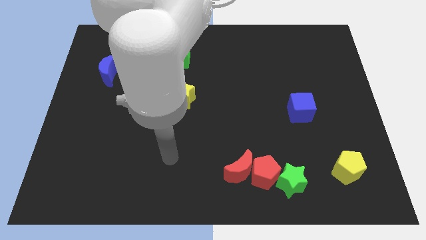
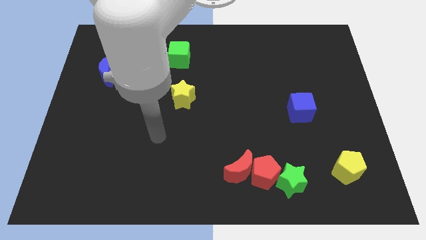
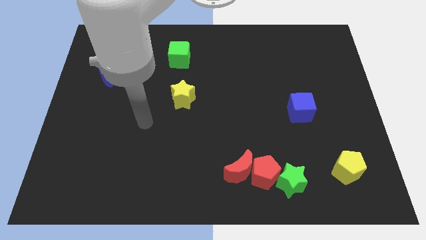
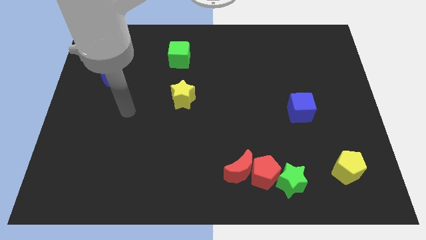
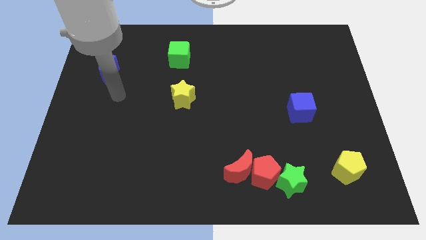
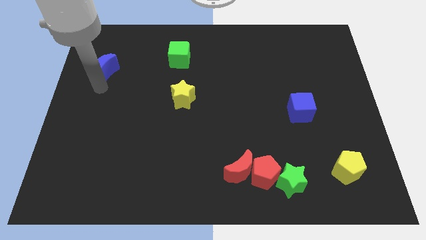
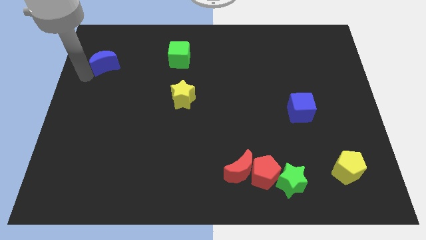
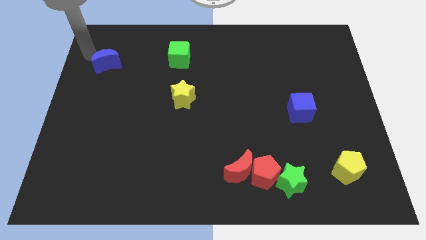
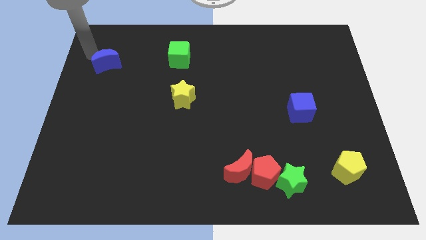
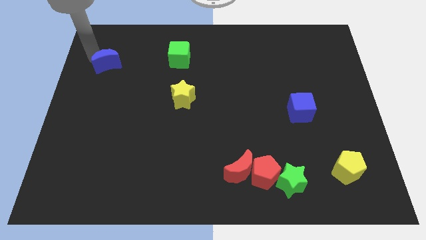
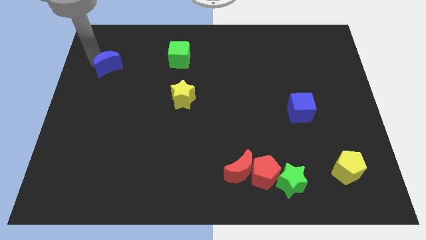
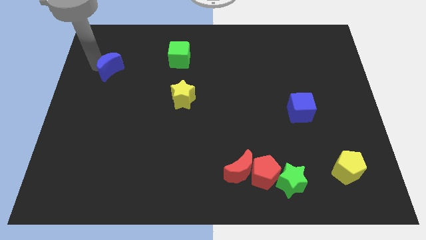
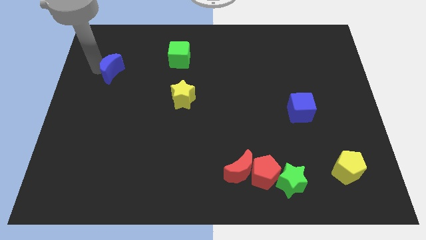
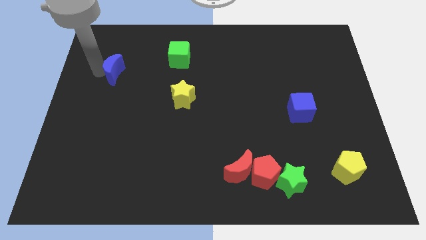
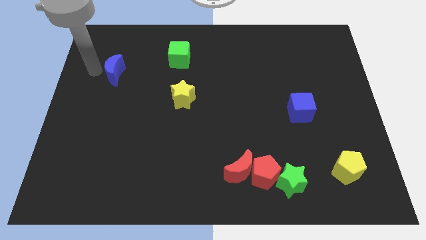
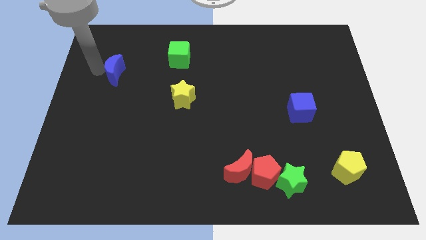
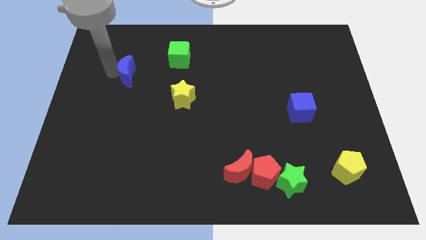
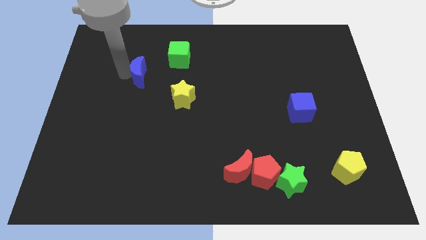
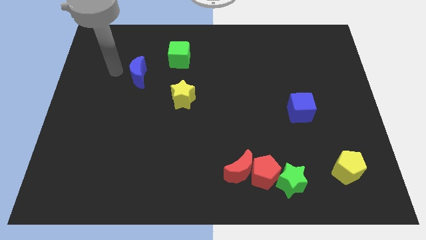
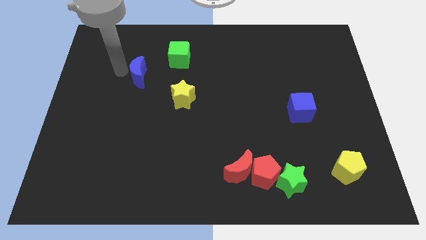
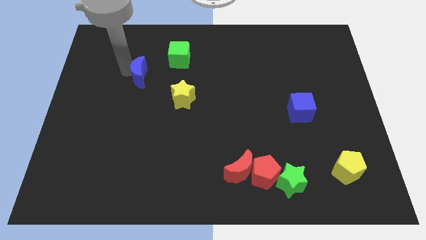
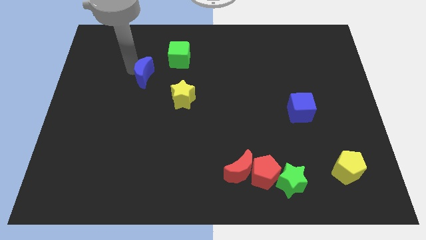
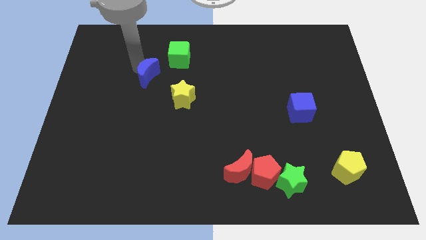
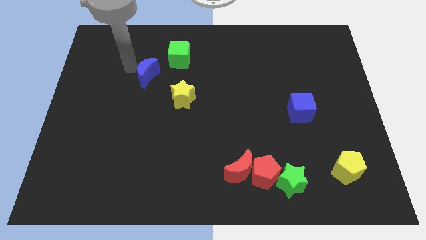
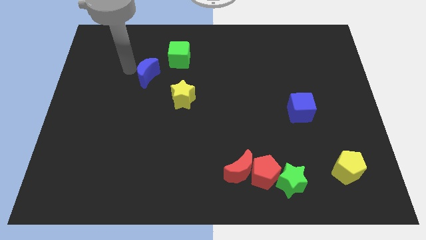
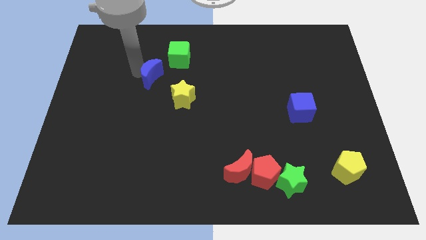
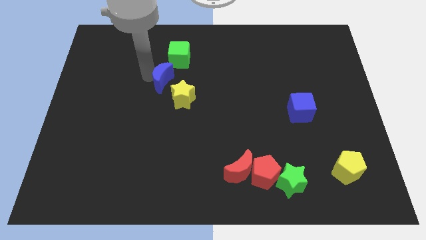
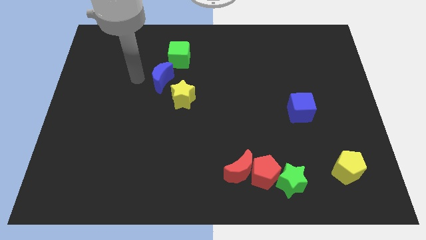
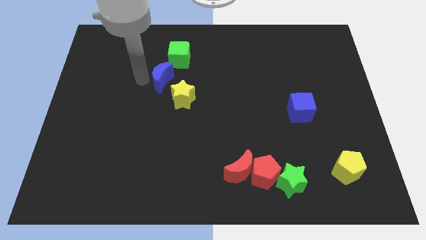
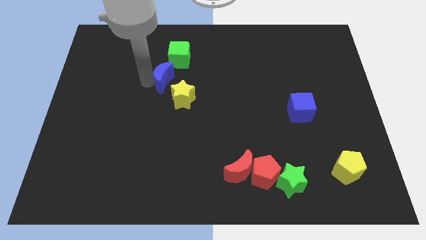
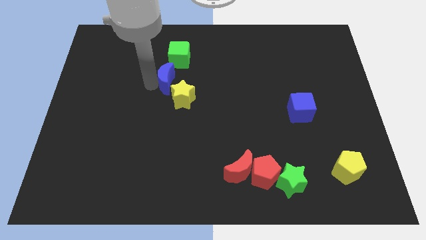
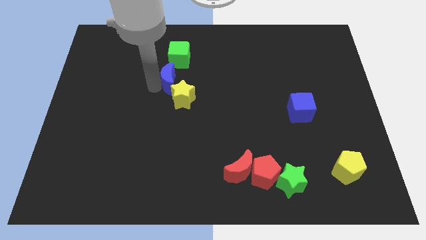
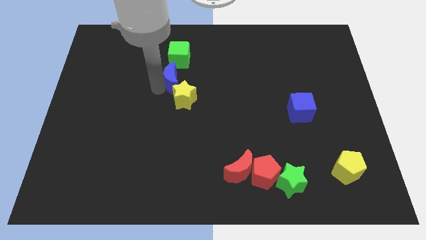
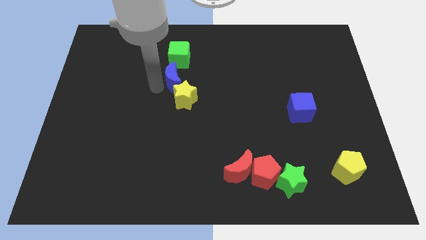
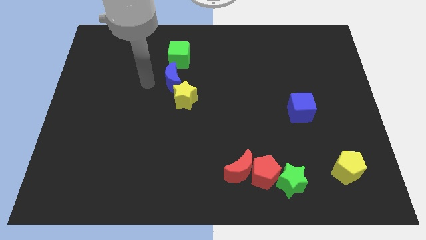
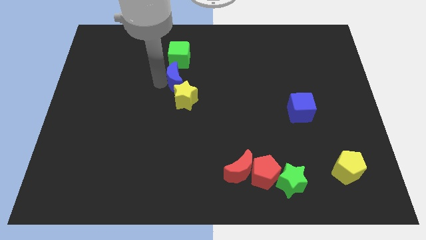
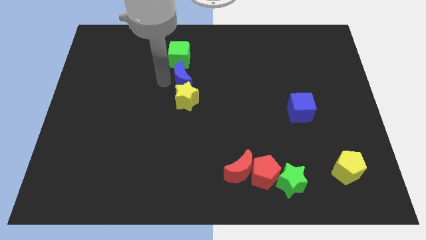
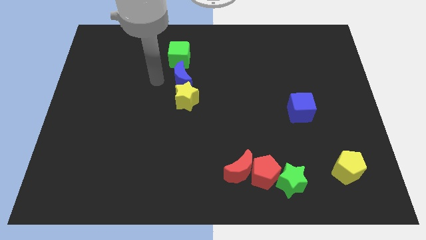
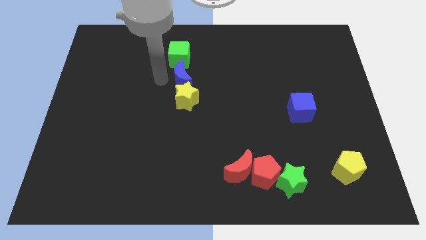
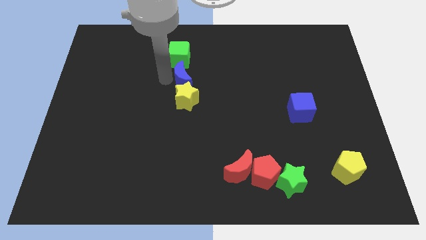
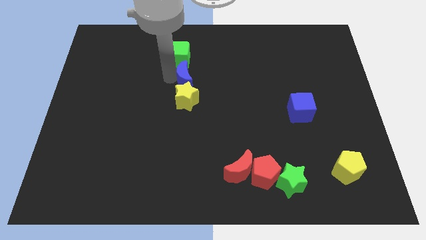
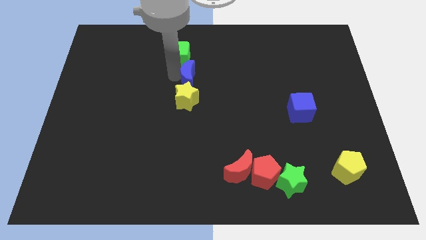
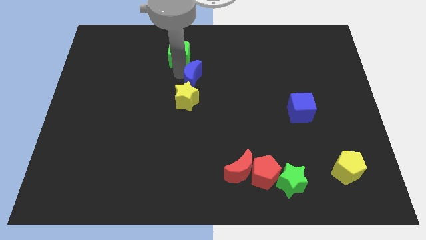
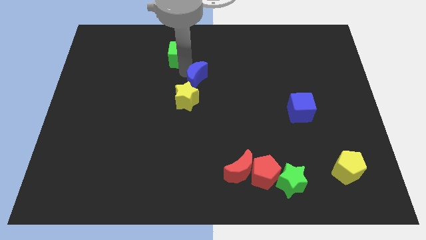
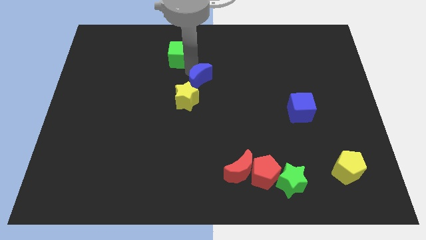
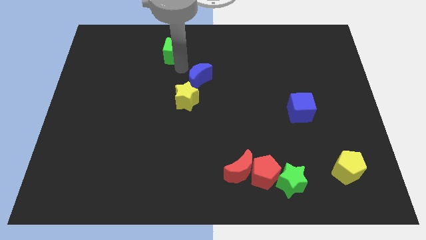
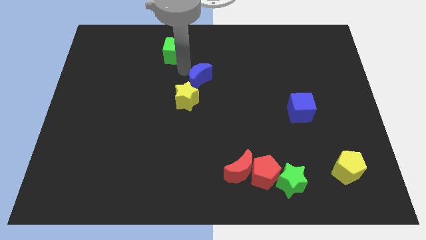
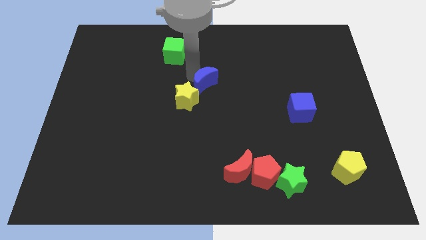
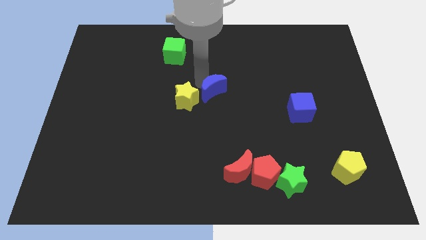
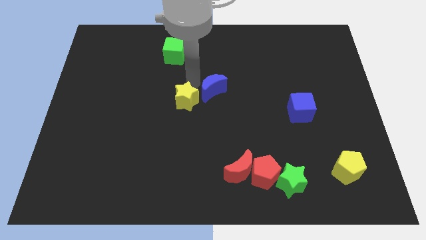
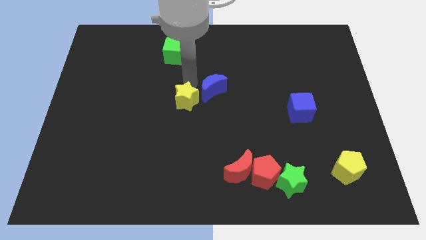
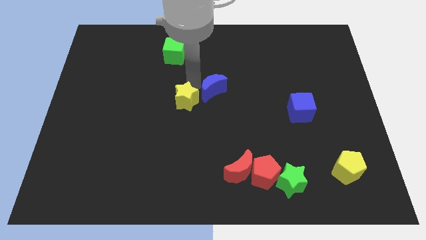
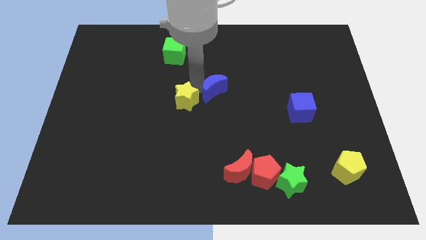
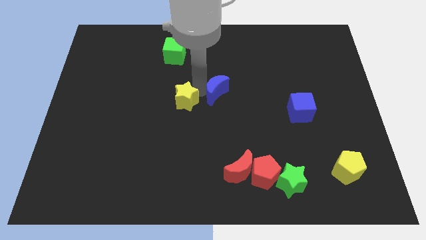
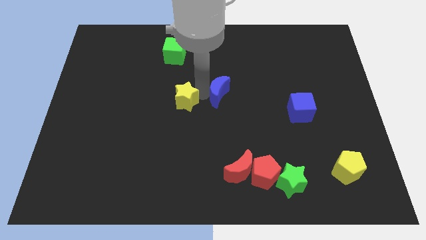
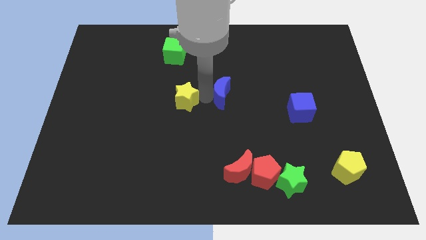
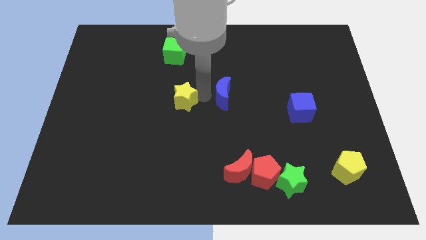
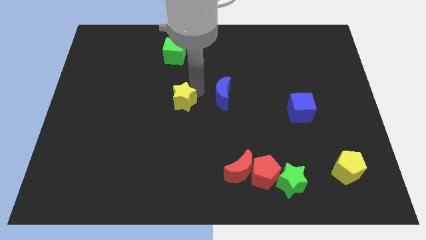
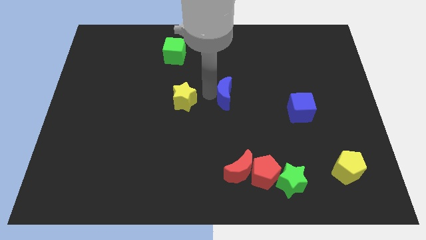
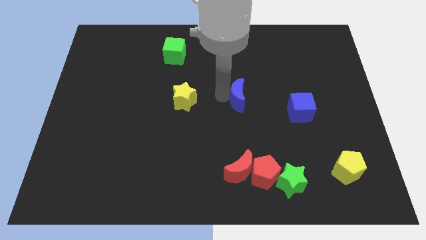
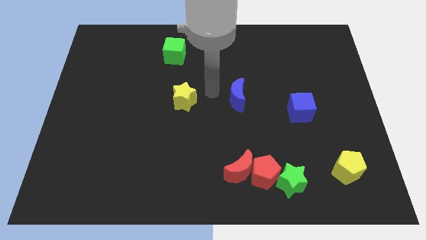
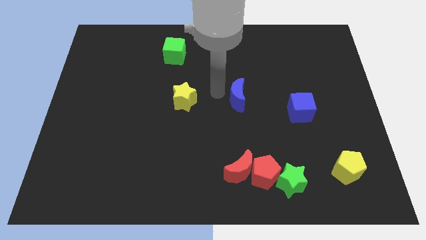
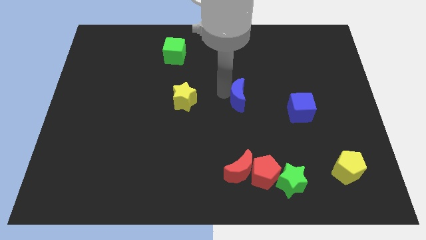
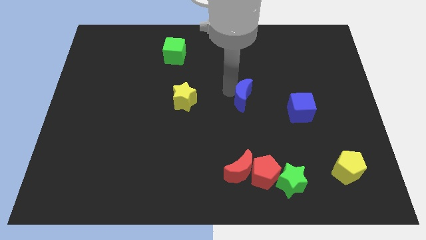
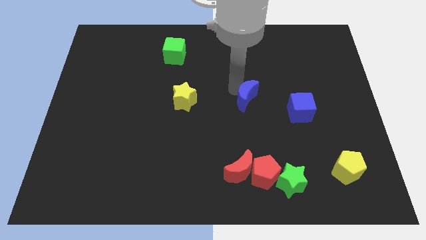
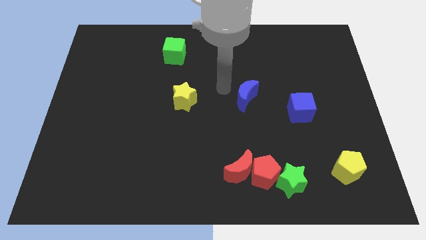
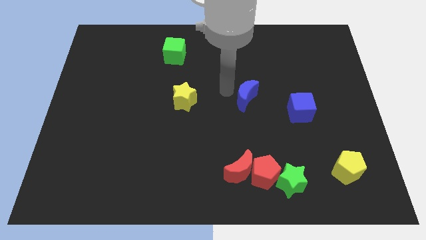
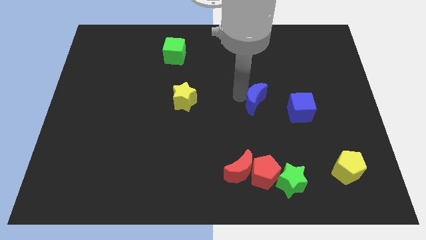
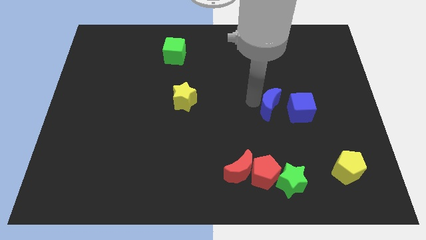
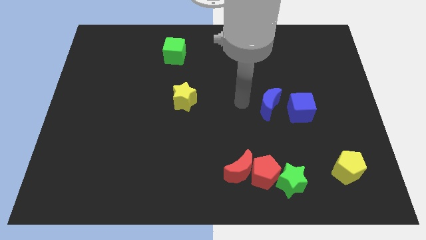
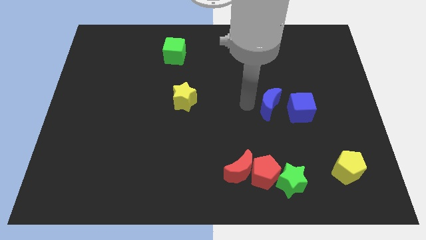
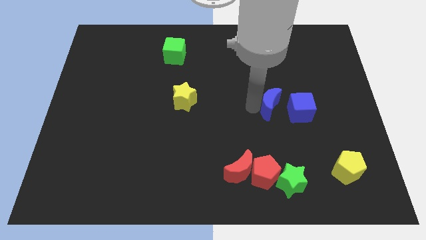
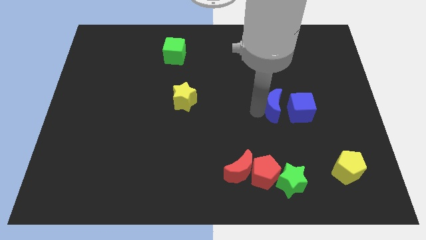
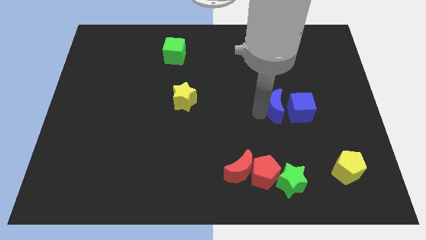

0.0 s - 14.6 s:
push the blue moon next to the blue cube

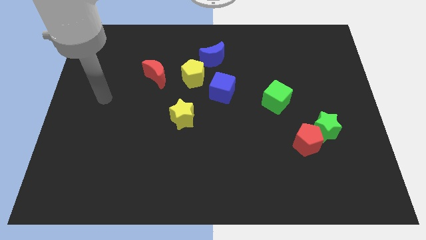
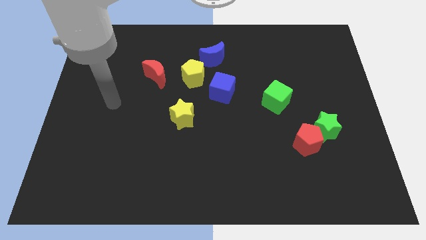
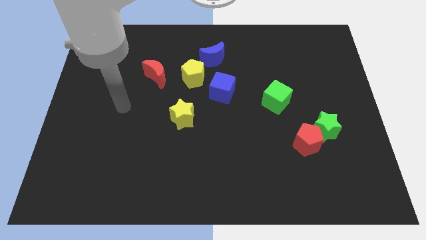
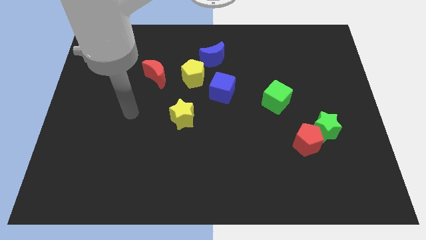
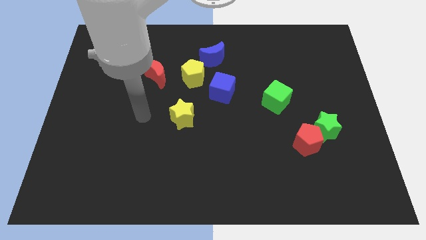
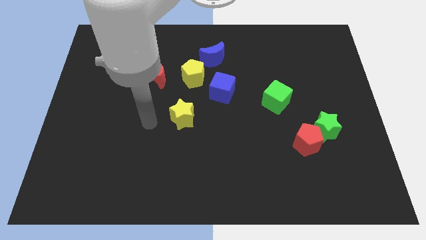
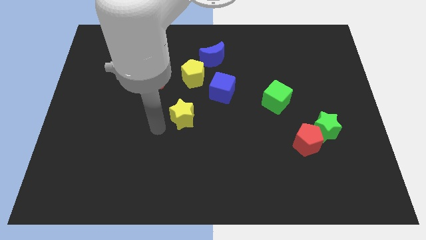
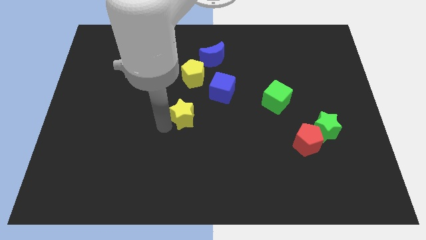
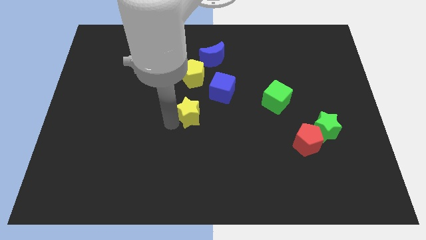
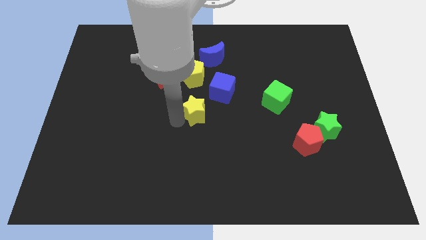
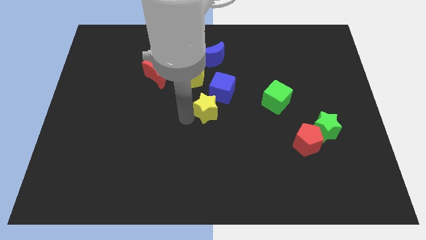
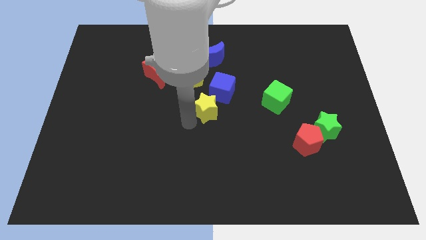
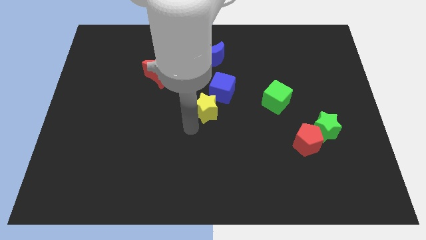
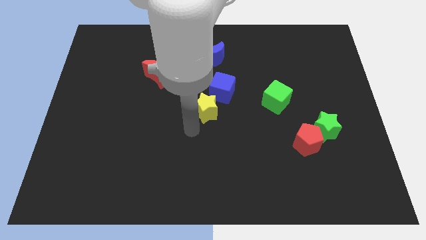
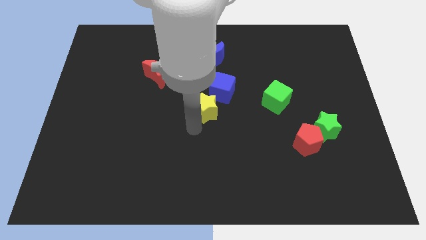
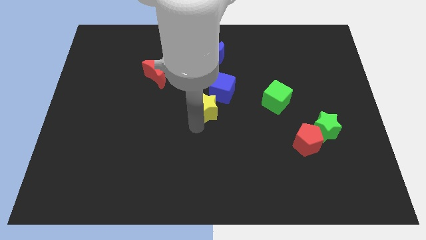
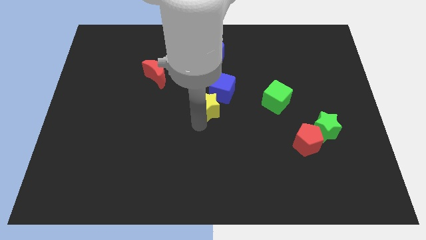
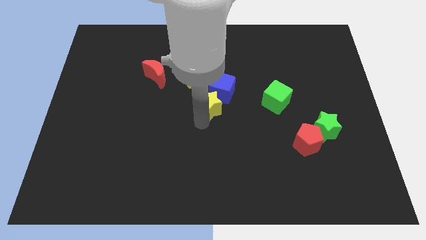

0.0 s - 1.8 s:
move the yellow star next to the blue cube
